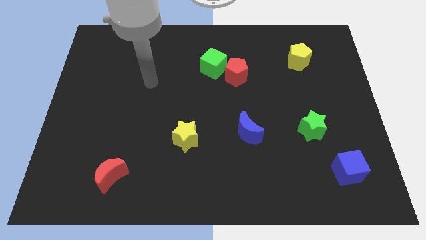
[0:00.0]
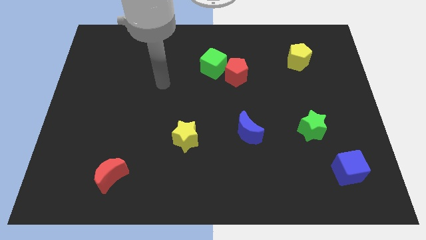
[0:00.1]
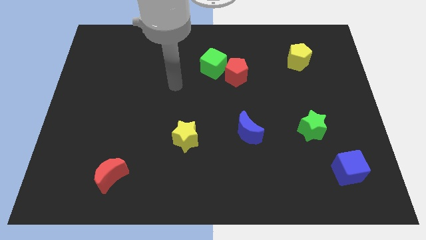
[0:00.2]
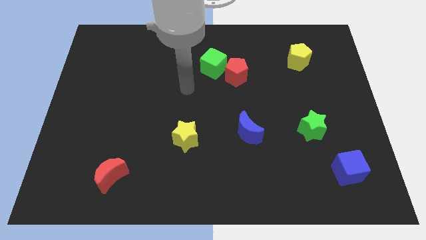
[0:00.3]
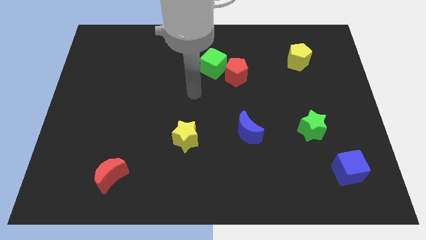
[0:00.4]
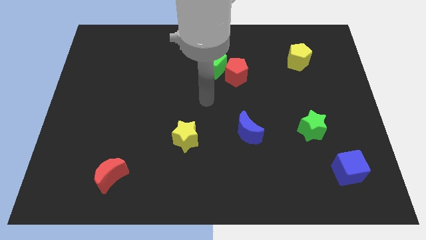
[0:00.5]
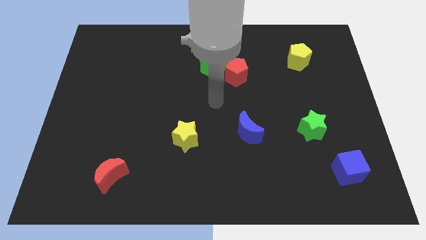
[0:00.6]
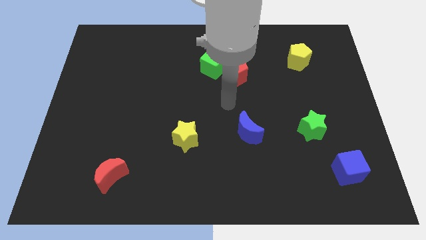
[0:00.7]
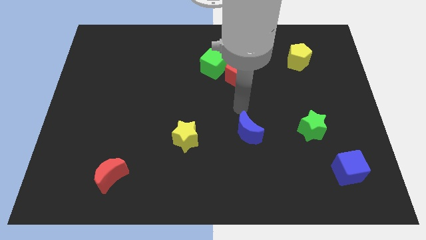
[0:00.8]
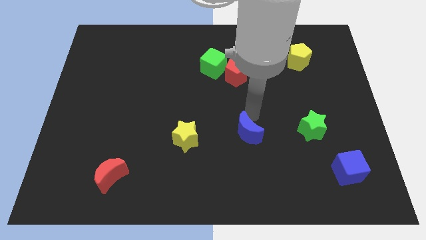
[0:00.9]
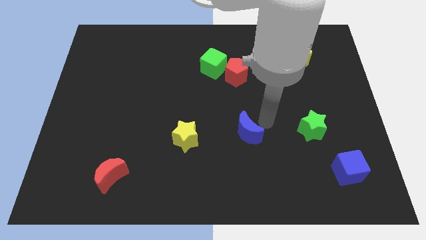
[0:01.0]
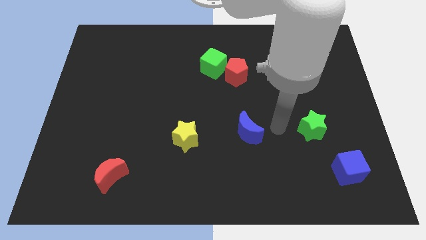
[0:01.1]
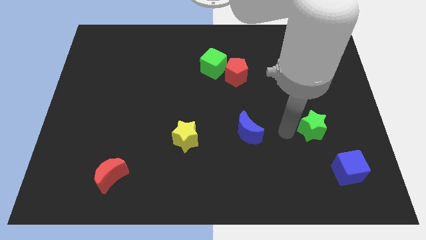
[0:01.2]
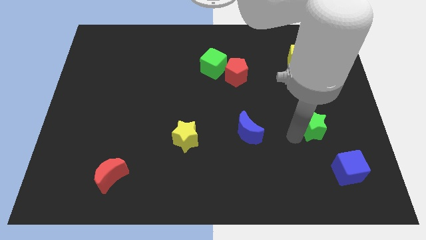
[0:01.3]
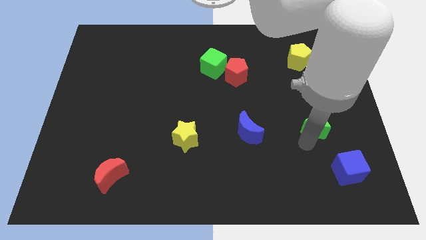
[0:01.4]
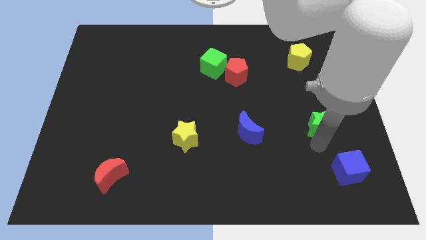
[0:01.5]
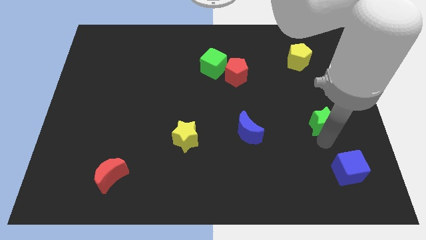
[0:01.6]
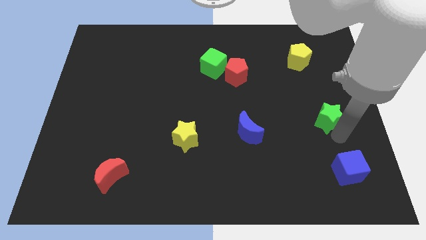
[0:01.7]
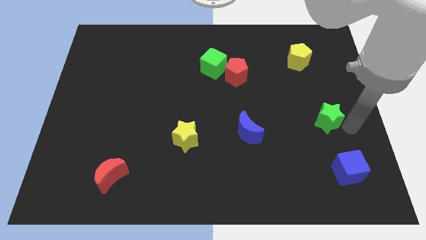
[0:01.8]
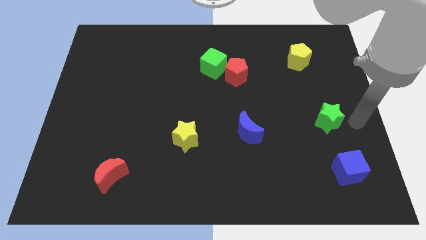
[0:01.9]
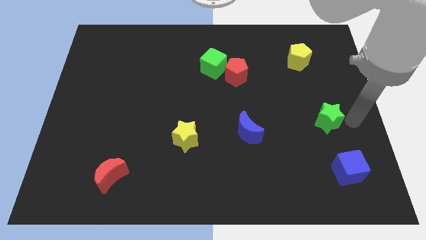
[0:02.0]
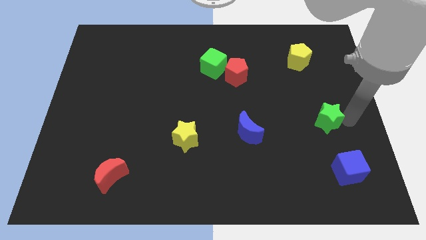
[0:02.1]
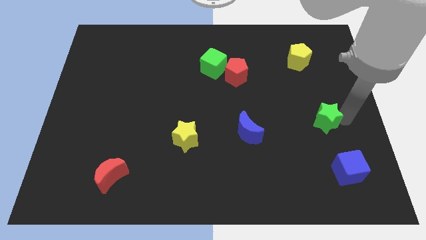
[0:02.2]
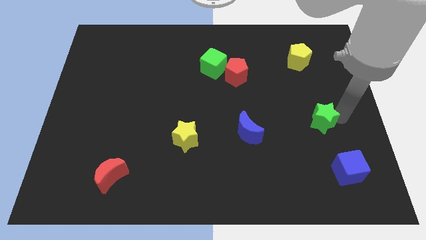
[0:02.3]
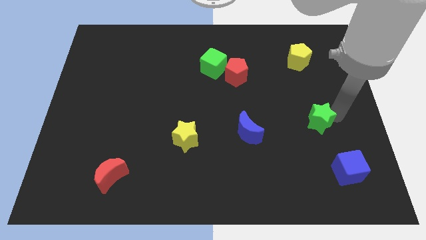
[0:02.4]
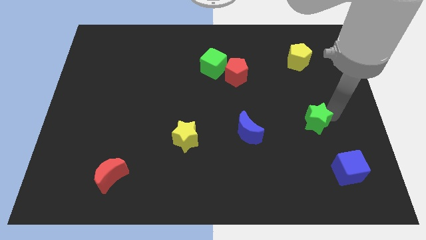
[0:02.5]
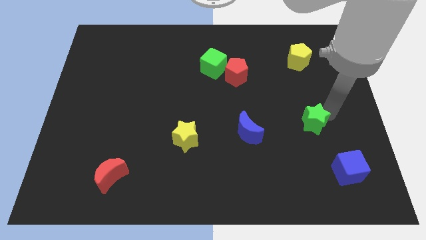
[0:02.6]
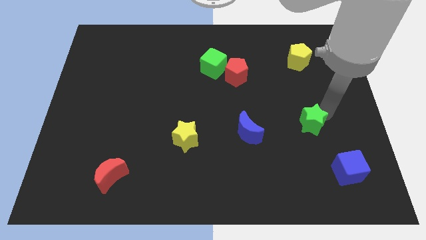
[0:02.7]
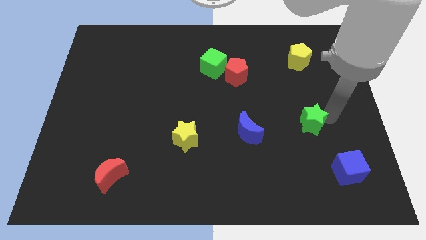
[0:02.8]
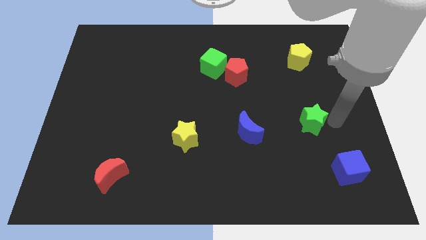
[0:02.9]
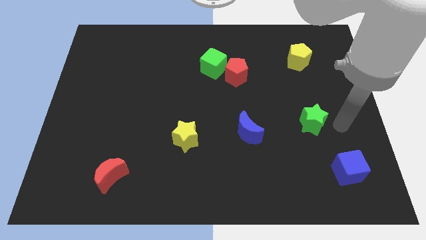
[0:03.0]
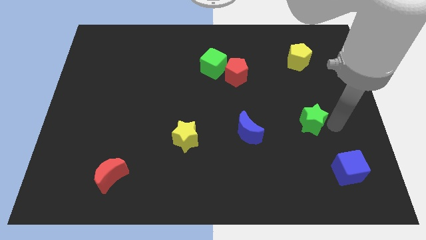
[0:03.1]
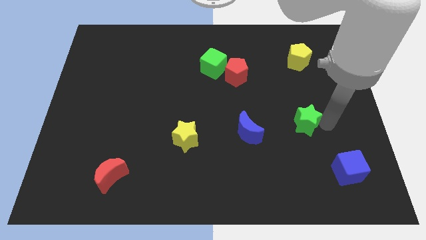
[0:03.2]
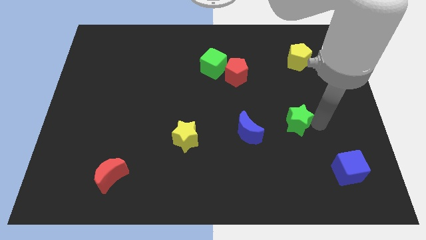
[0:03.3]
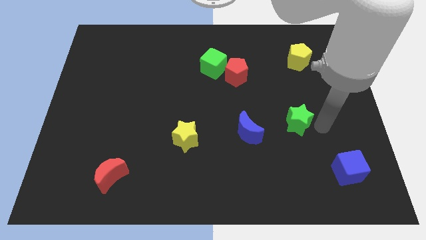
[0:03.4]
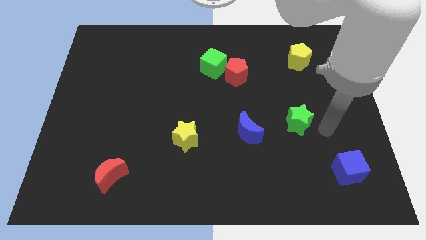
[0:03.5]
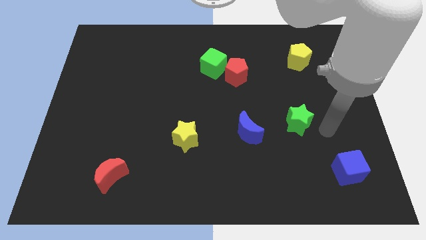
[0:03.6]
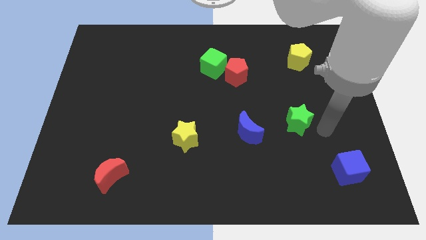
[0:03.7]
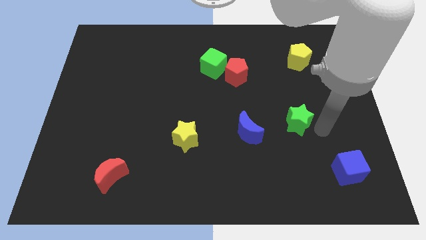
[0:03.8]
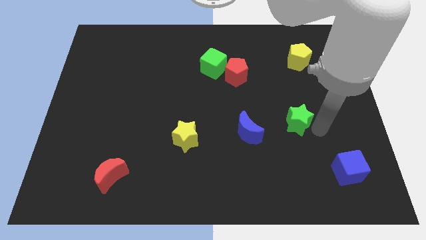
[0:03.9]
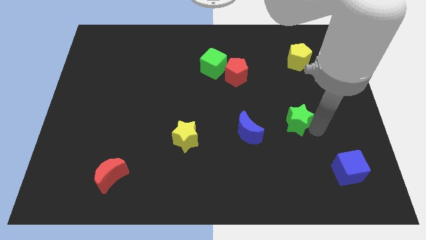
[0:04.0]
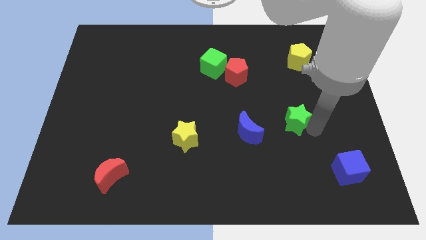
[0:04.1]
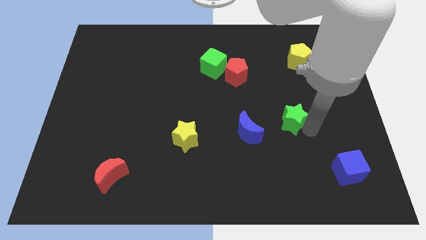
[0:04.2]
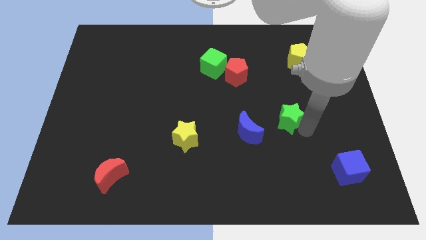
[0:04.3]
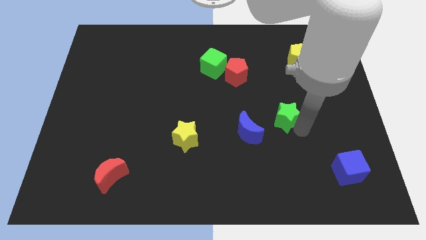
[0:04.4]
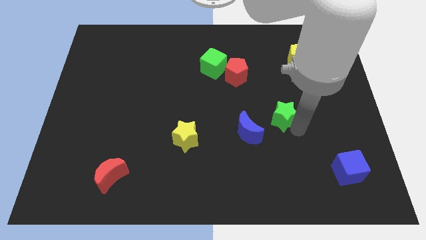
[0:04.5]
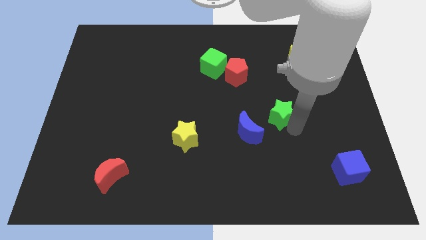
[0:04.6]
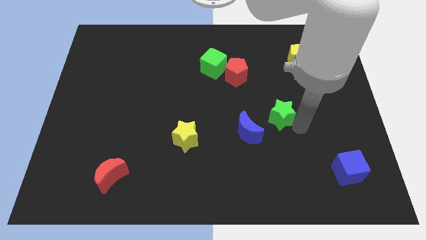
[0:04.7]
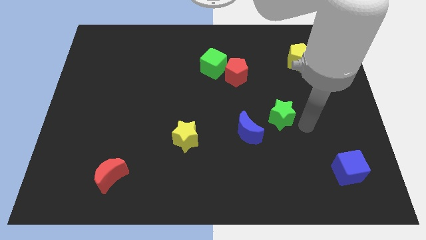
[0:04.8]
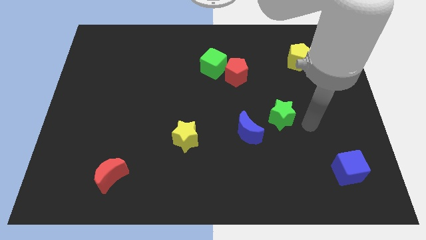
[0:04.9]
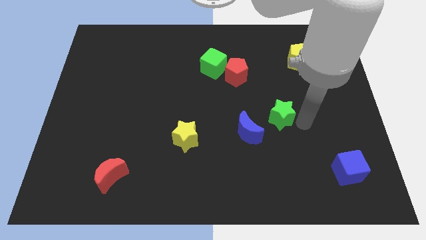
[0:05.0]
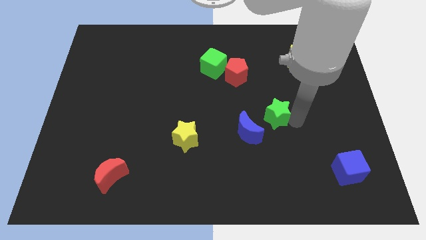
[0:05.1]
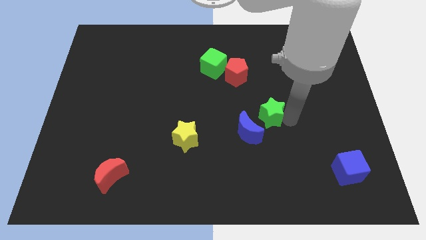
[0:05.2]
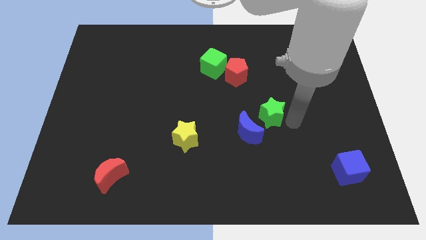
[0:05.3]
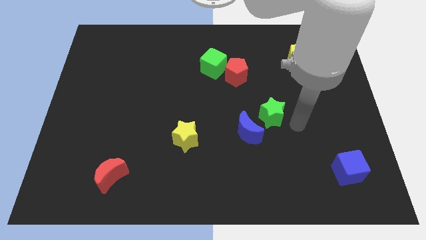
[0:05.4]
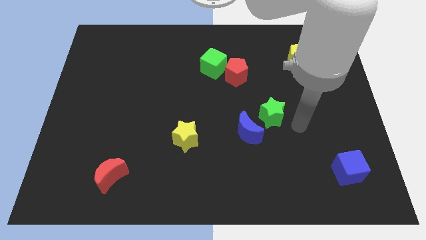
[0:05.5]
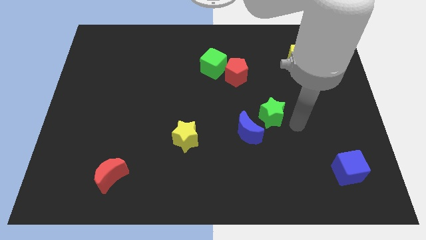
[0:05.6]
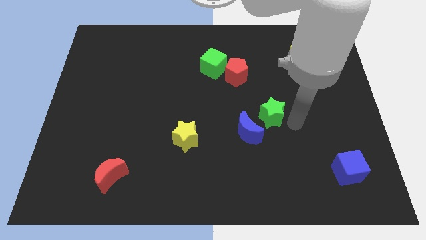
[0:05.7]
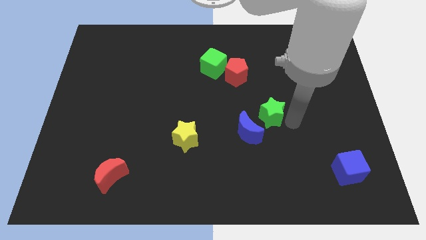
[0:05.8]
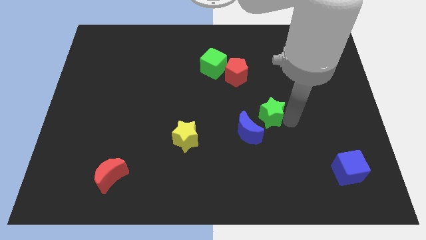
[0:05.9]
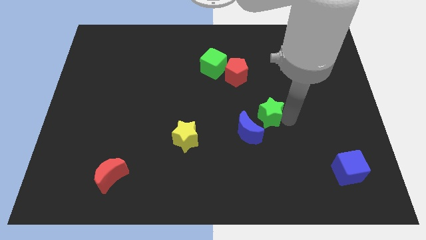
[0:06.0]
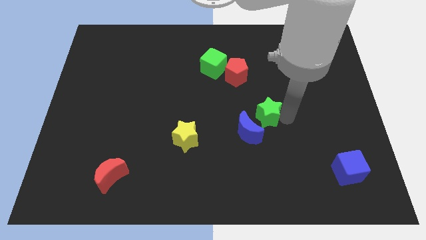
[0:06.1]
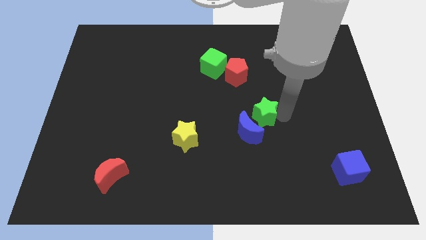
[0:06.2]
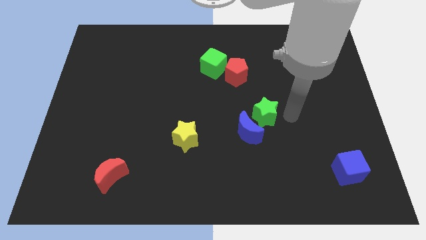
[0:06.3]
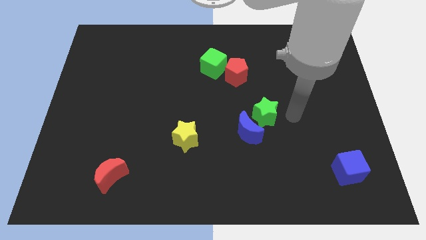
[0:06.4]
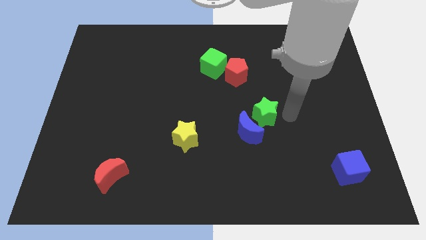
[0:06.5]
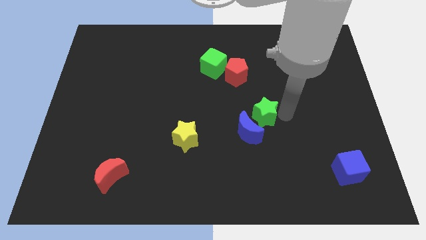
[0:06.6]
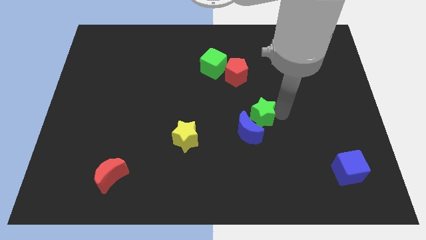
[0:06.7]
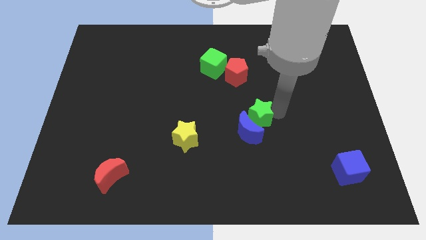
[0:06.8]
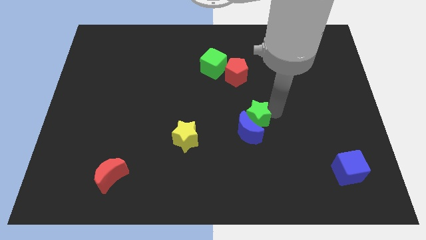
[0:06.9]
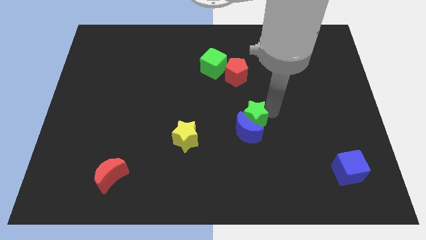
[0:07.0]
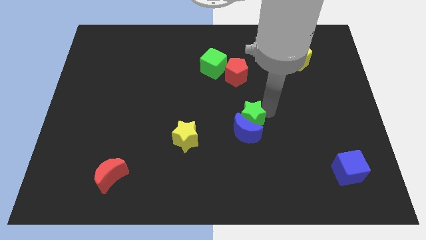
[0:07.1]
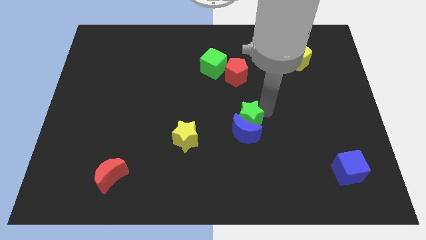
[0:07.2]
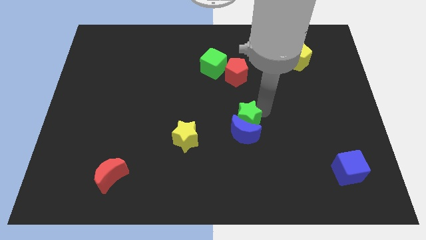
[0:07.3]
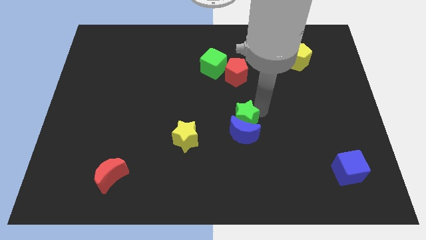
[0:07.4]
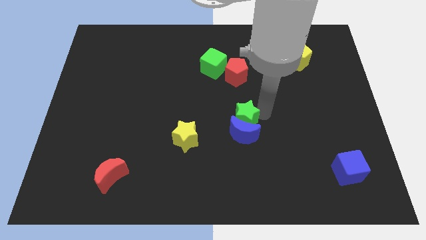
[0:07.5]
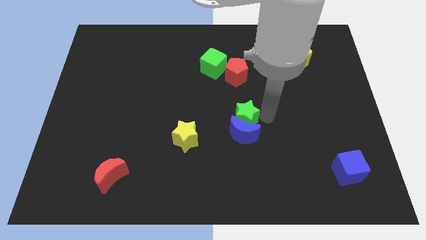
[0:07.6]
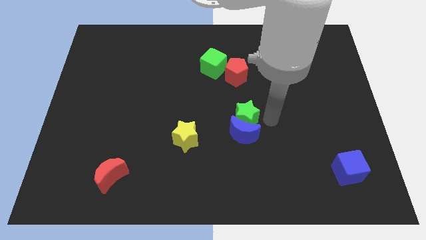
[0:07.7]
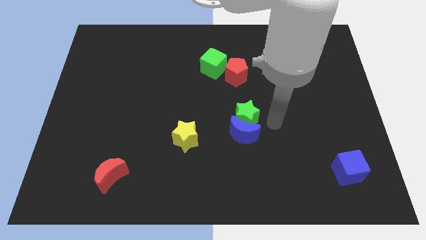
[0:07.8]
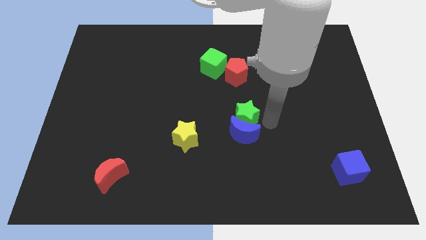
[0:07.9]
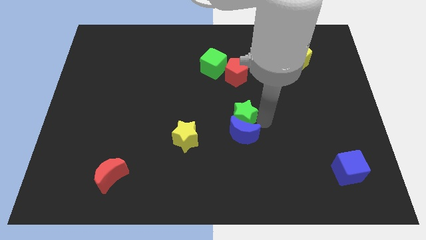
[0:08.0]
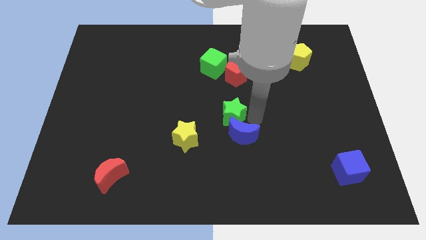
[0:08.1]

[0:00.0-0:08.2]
slide the green star to the top right of the yellow star
